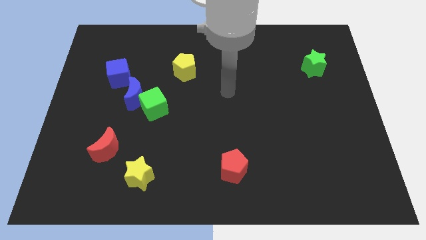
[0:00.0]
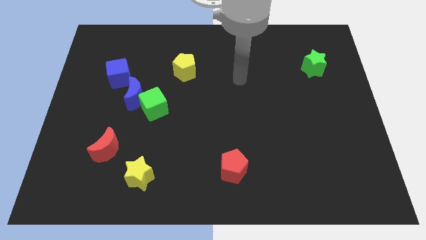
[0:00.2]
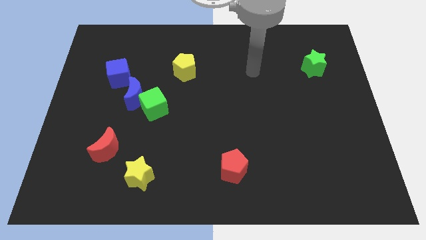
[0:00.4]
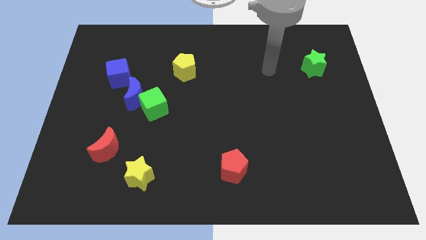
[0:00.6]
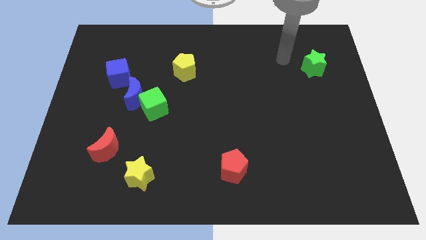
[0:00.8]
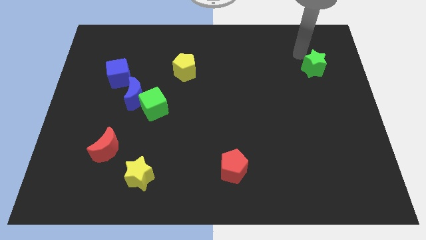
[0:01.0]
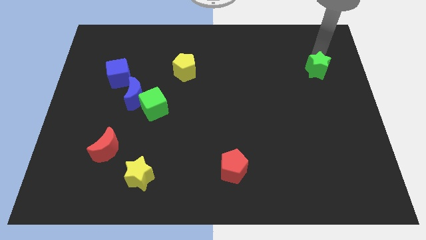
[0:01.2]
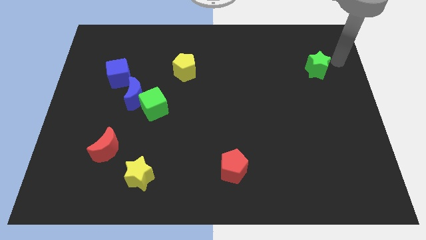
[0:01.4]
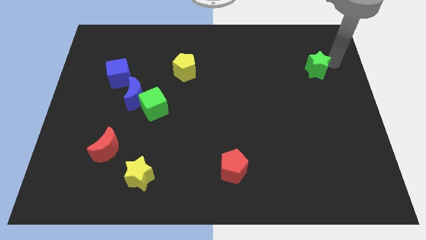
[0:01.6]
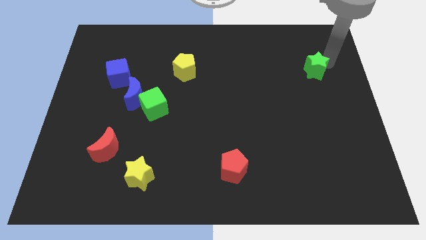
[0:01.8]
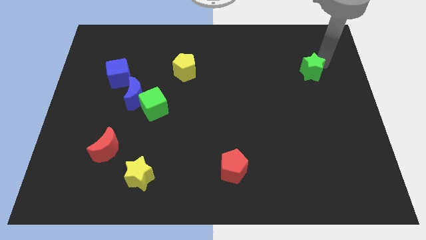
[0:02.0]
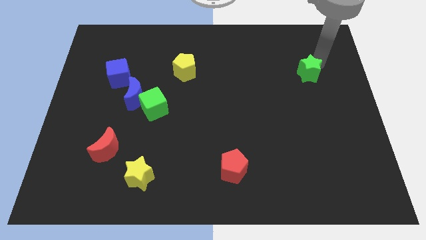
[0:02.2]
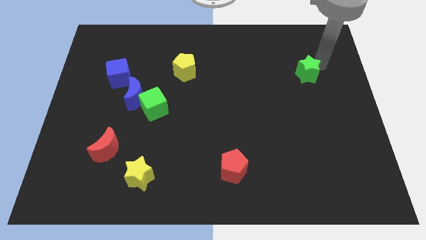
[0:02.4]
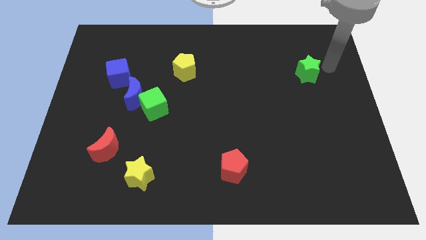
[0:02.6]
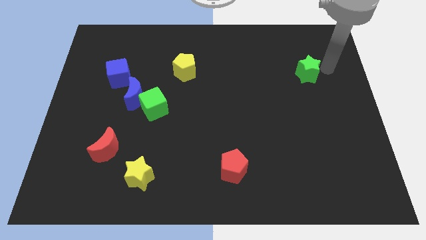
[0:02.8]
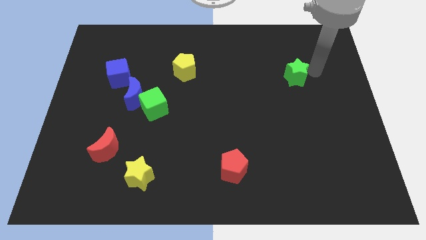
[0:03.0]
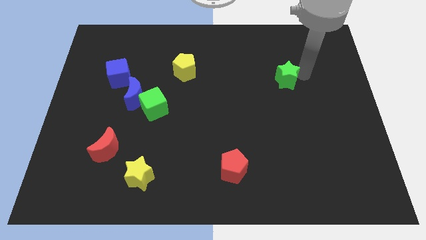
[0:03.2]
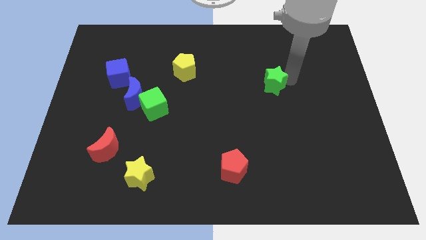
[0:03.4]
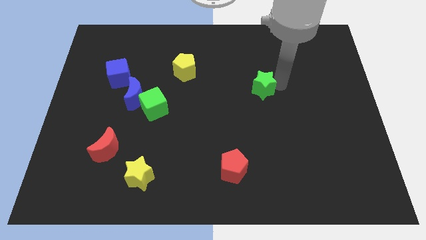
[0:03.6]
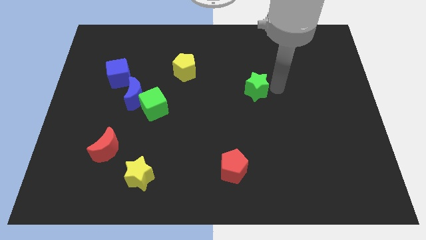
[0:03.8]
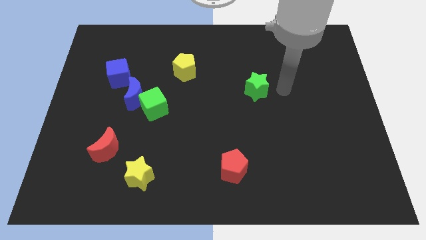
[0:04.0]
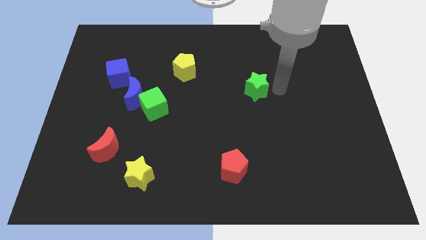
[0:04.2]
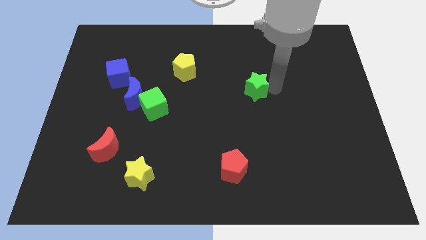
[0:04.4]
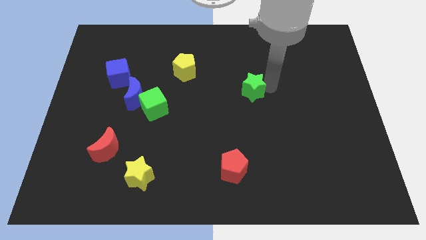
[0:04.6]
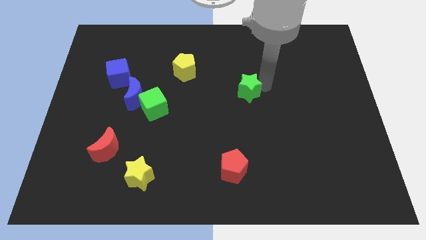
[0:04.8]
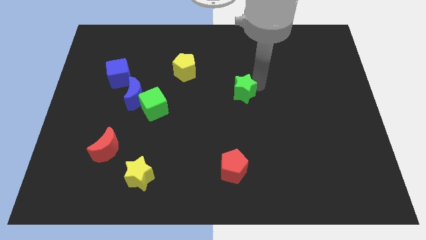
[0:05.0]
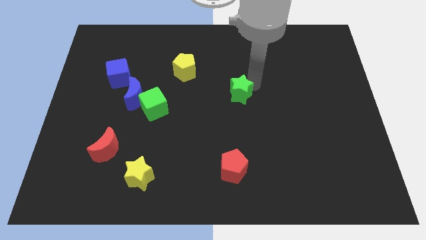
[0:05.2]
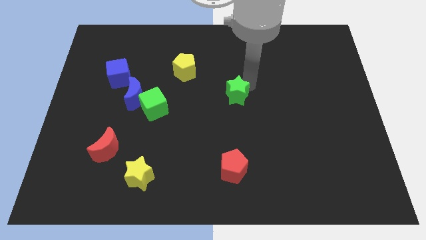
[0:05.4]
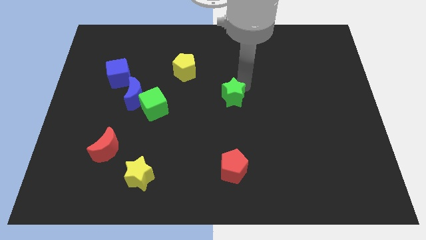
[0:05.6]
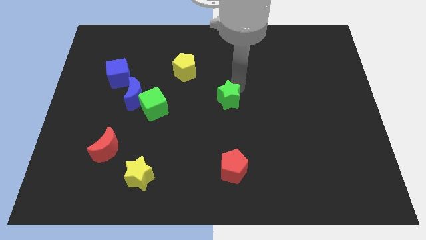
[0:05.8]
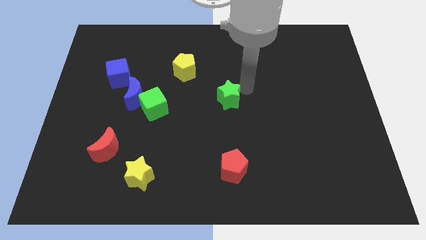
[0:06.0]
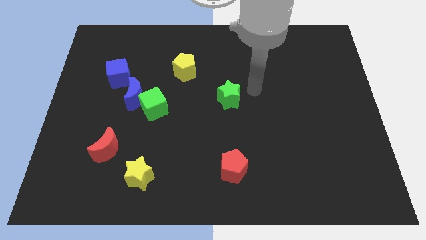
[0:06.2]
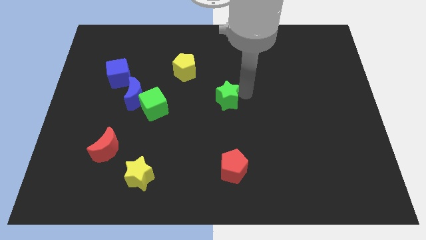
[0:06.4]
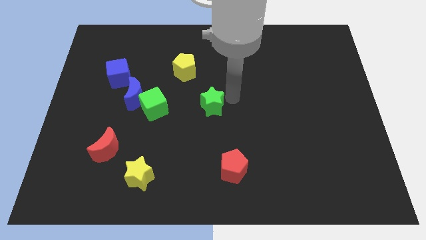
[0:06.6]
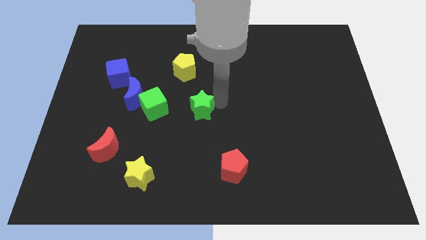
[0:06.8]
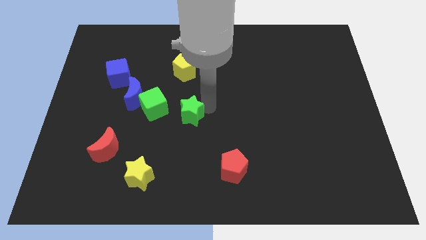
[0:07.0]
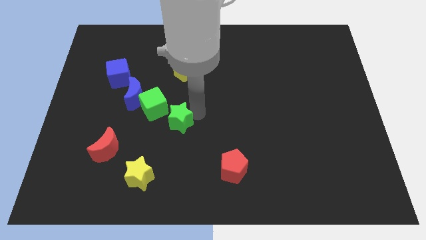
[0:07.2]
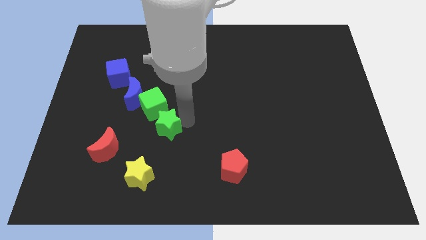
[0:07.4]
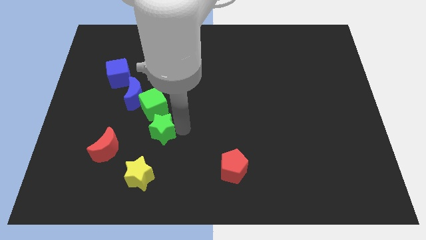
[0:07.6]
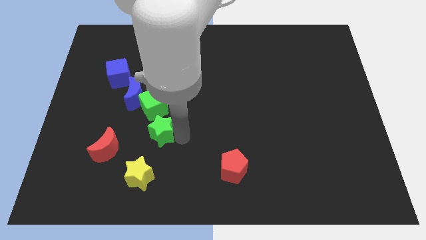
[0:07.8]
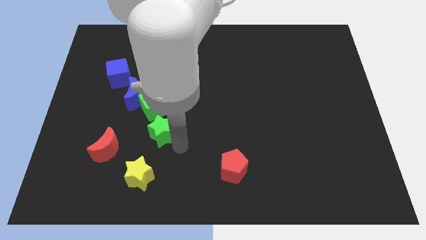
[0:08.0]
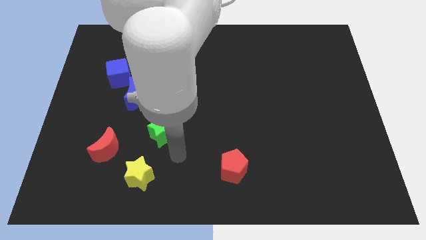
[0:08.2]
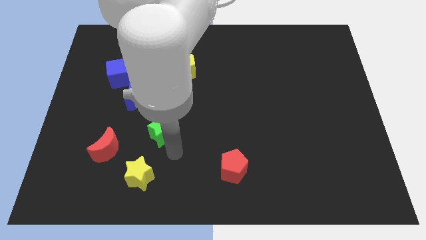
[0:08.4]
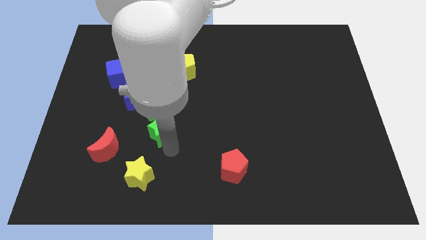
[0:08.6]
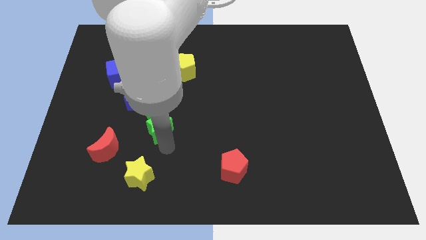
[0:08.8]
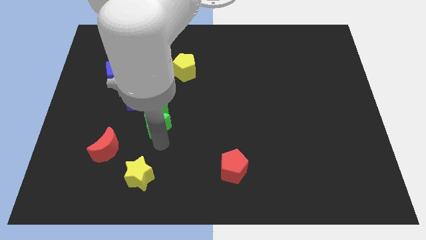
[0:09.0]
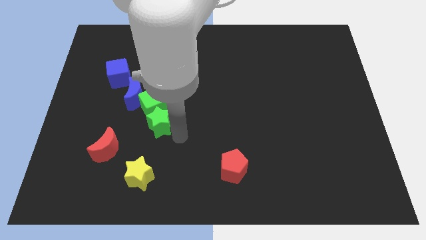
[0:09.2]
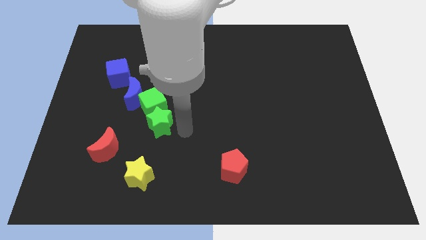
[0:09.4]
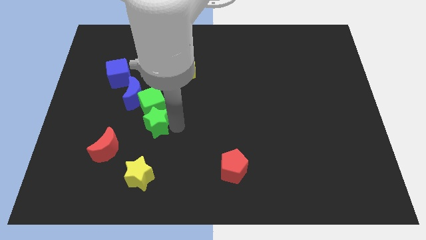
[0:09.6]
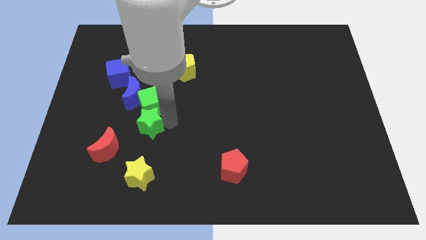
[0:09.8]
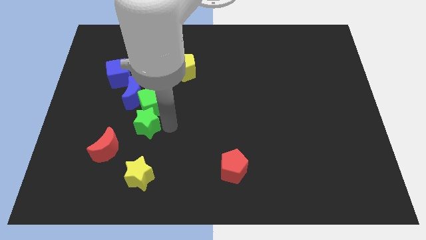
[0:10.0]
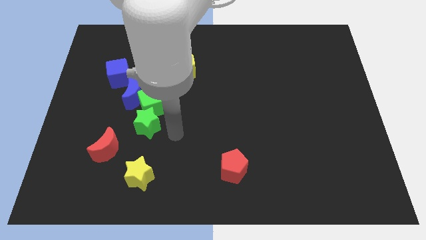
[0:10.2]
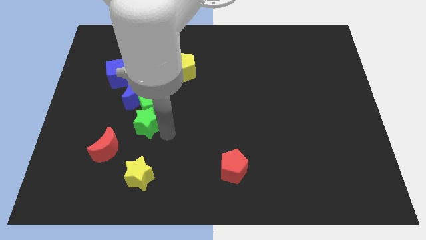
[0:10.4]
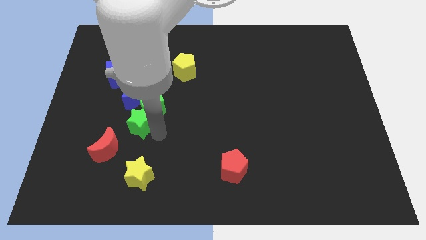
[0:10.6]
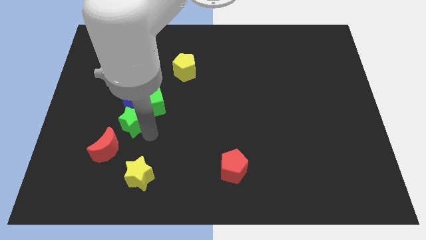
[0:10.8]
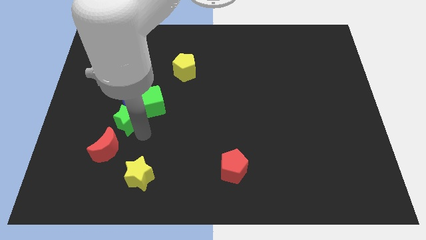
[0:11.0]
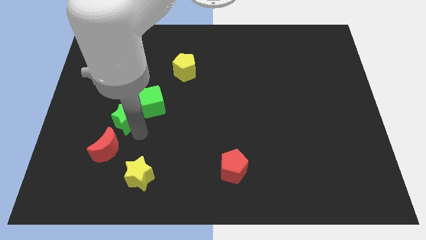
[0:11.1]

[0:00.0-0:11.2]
push the green star to the bottom left of the blue moon

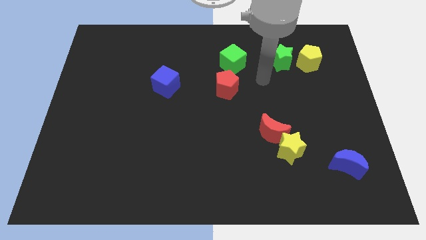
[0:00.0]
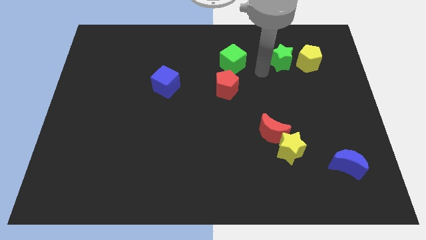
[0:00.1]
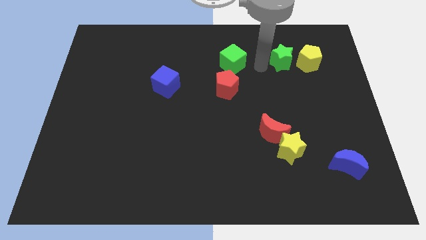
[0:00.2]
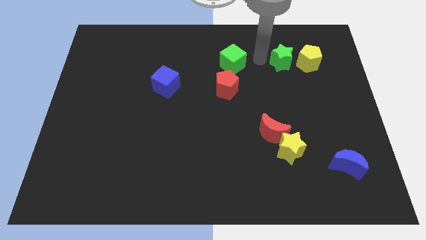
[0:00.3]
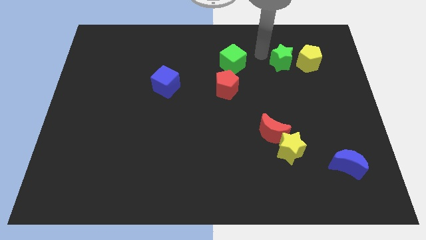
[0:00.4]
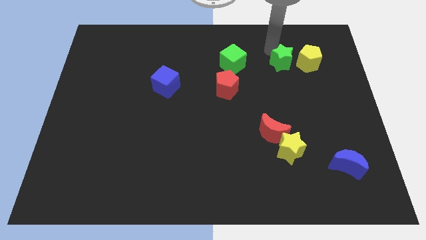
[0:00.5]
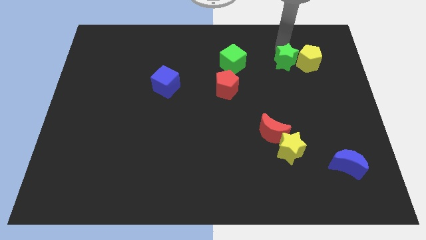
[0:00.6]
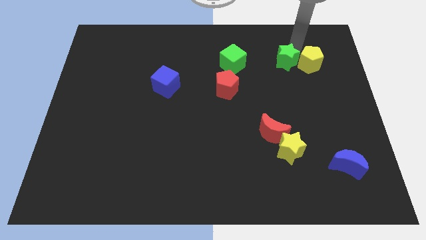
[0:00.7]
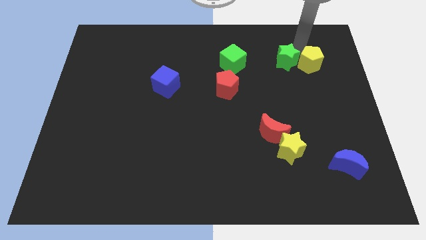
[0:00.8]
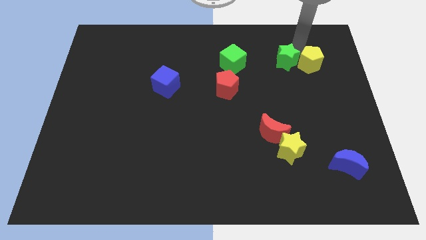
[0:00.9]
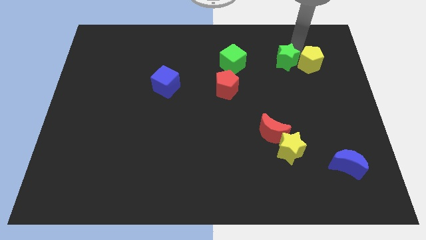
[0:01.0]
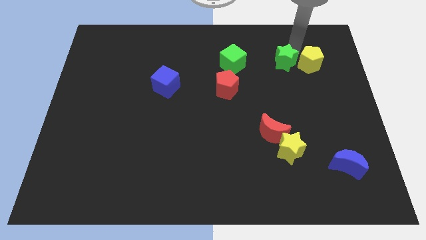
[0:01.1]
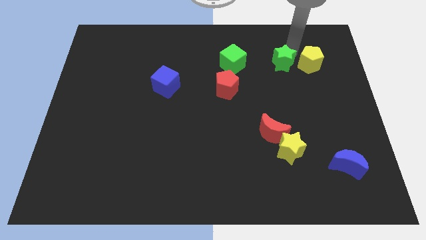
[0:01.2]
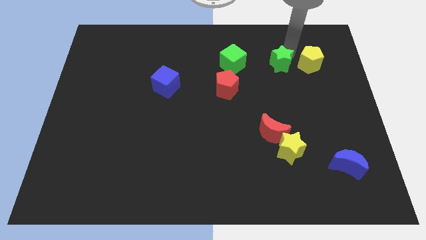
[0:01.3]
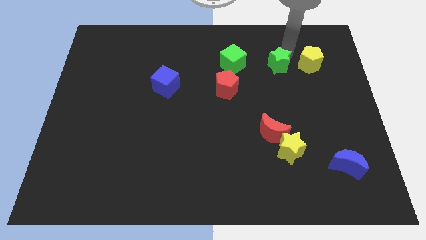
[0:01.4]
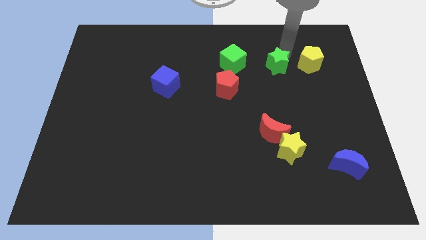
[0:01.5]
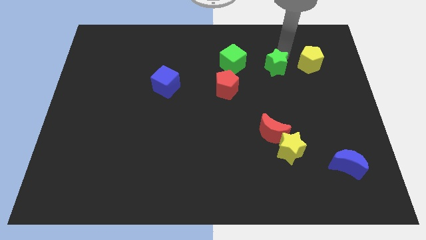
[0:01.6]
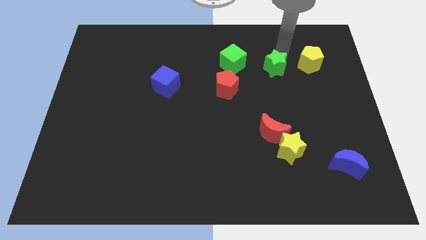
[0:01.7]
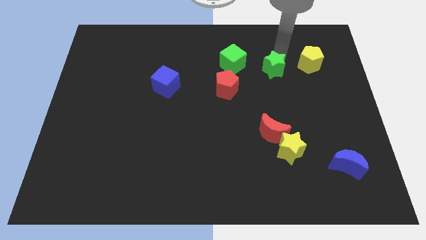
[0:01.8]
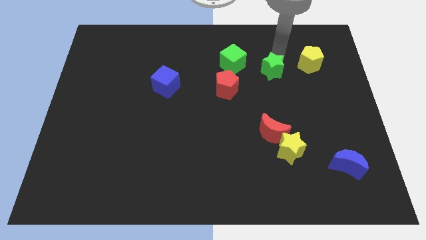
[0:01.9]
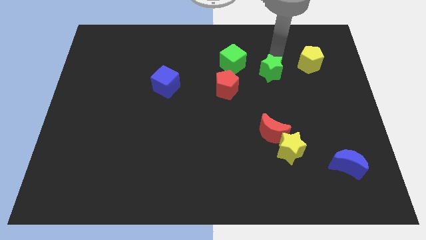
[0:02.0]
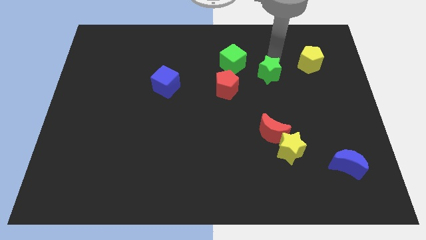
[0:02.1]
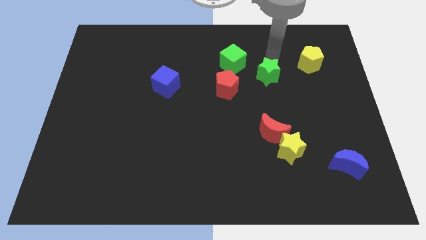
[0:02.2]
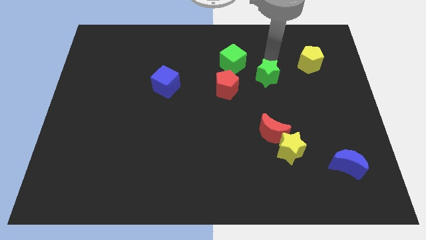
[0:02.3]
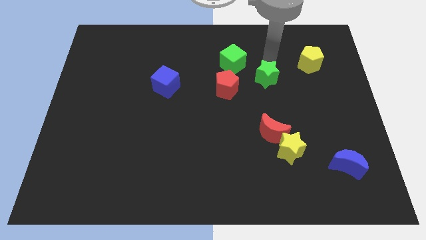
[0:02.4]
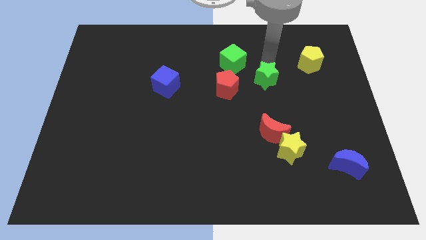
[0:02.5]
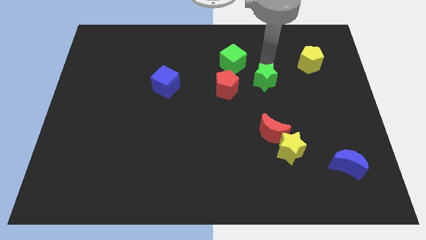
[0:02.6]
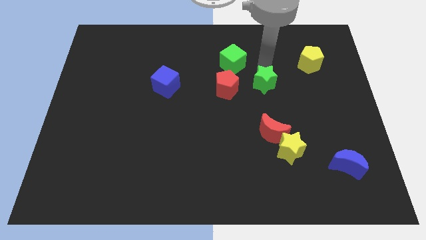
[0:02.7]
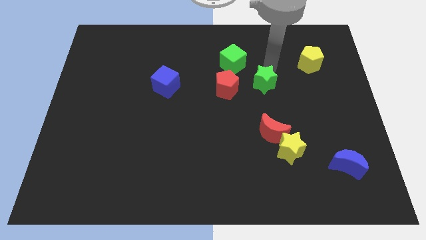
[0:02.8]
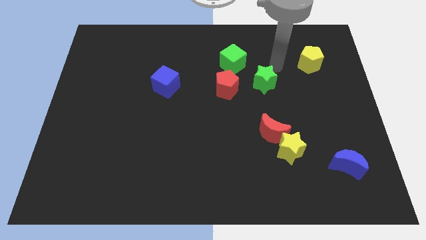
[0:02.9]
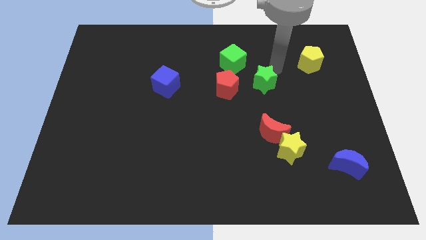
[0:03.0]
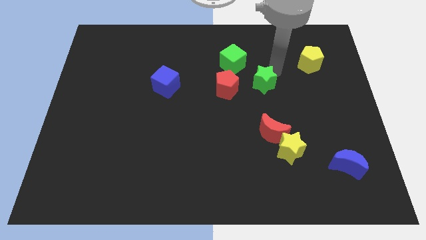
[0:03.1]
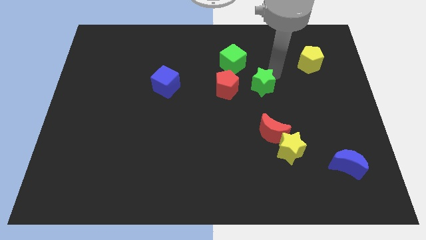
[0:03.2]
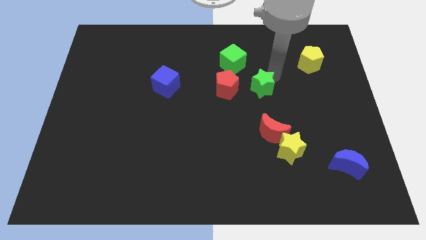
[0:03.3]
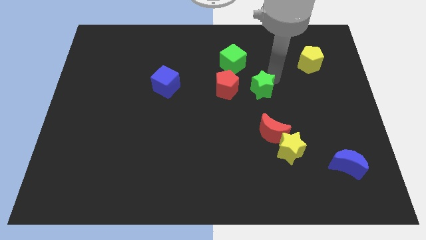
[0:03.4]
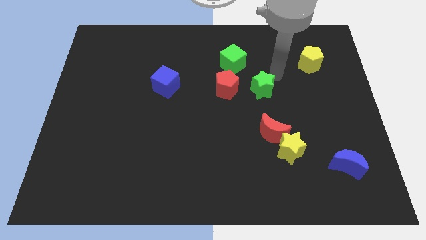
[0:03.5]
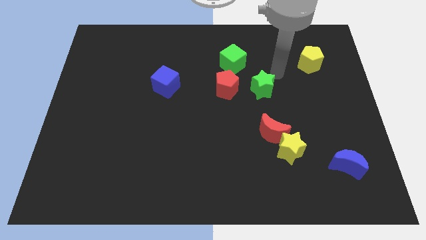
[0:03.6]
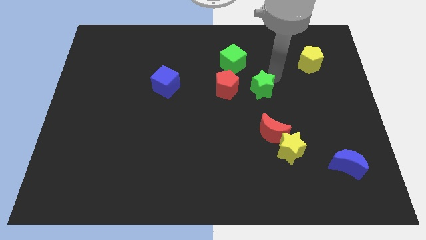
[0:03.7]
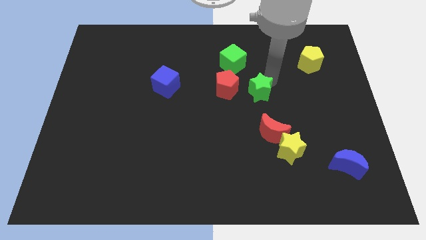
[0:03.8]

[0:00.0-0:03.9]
move the green star to the bottom right of the red pentagon
